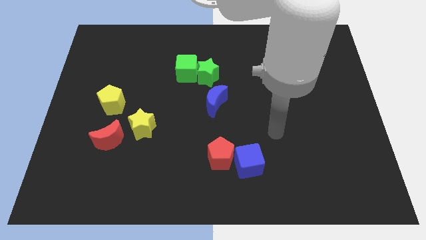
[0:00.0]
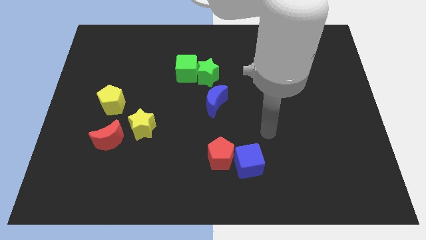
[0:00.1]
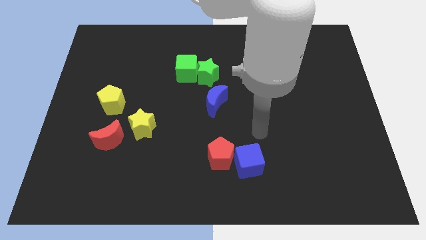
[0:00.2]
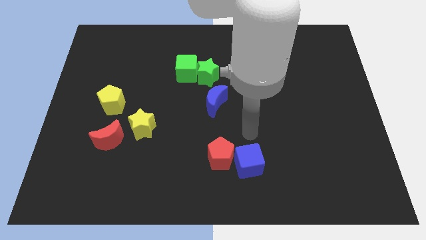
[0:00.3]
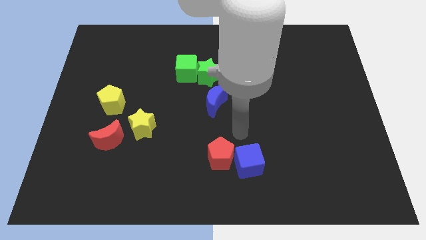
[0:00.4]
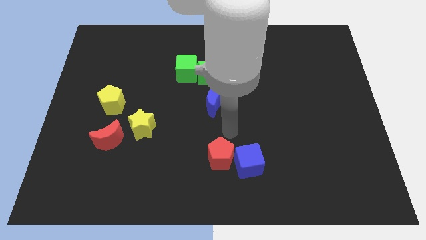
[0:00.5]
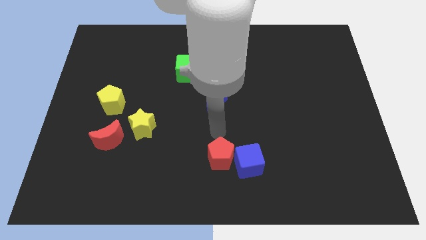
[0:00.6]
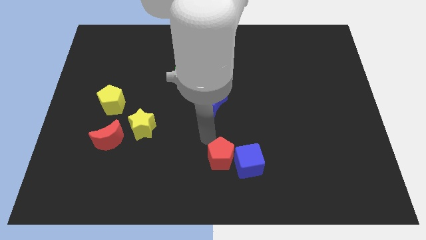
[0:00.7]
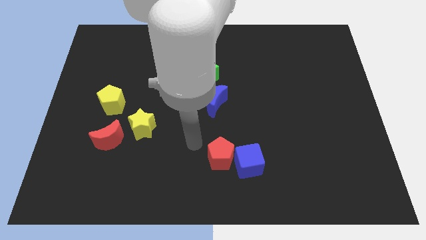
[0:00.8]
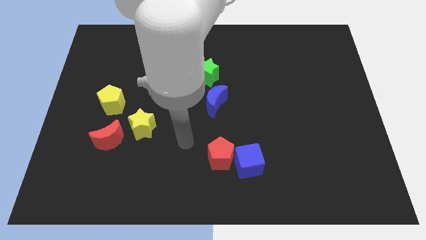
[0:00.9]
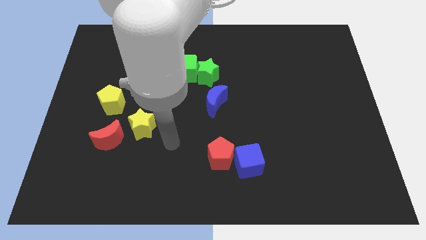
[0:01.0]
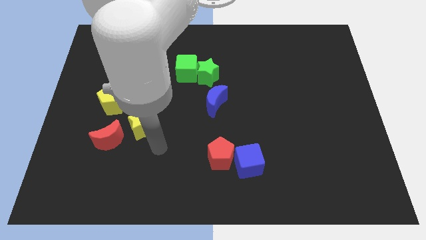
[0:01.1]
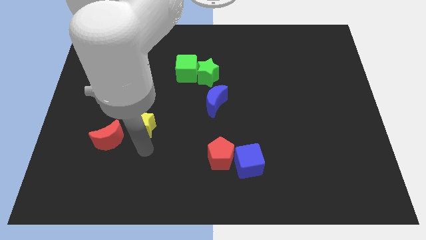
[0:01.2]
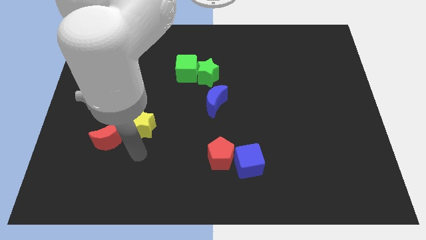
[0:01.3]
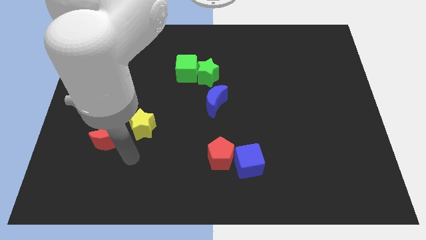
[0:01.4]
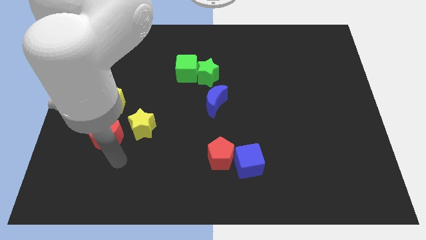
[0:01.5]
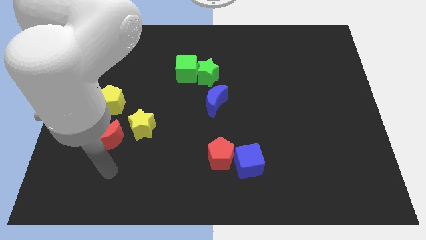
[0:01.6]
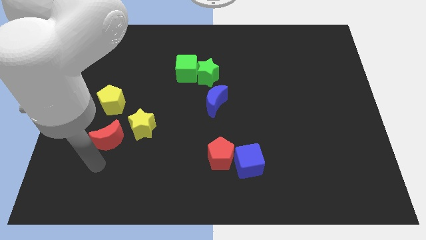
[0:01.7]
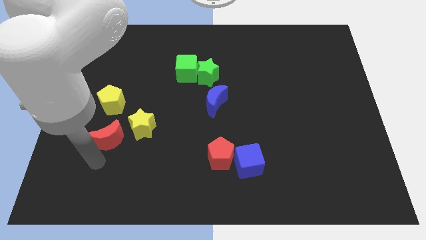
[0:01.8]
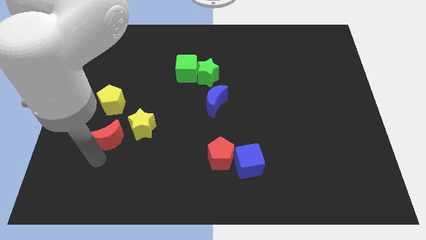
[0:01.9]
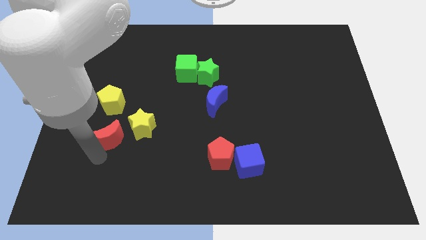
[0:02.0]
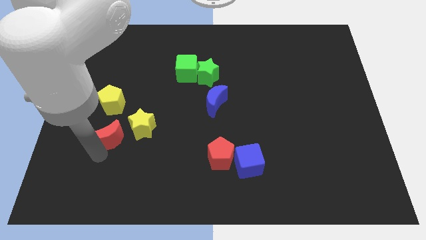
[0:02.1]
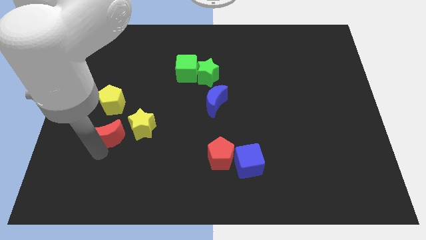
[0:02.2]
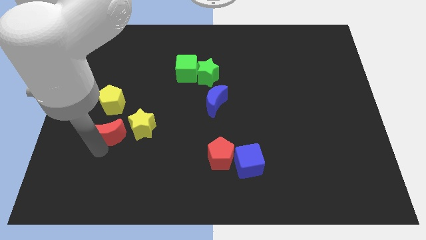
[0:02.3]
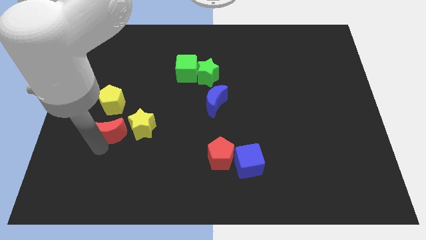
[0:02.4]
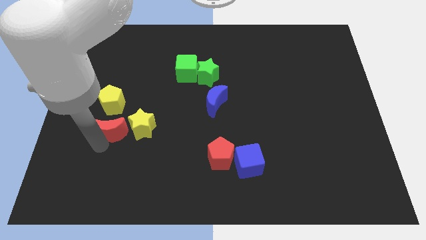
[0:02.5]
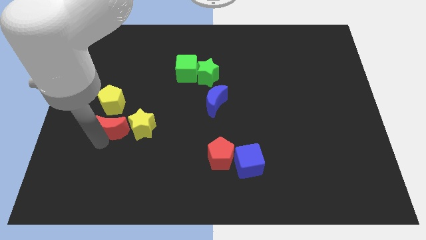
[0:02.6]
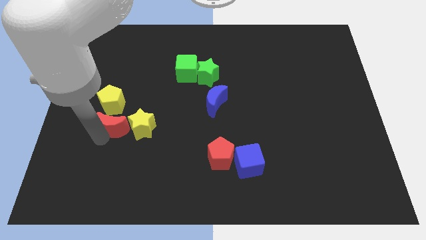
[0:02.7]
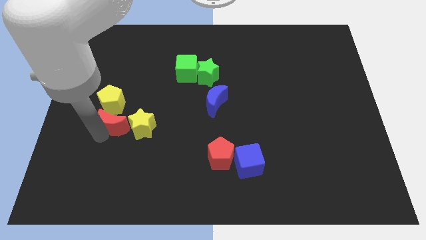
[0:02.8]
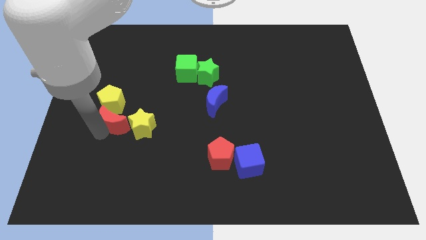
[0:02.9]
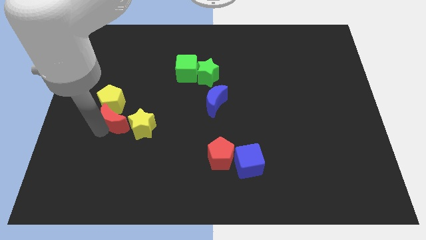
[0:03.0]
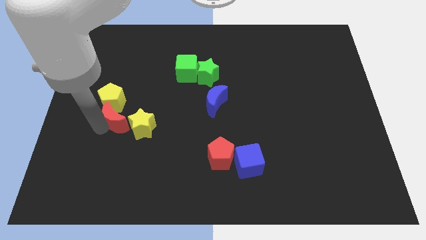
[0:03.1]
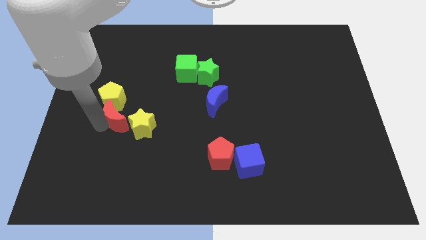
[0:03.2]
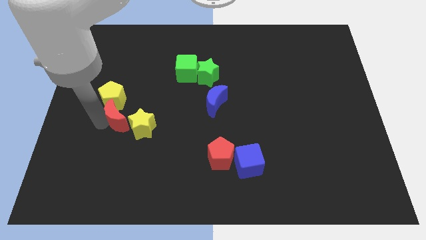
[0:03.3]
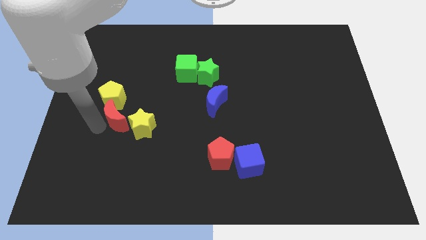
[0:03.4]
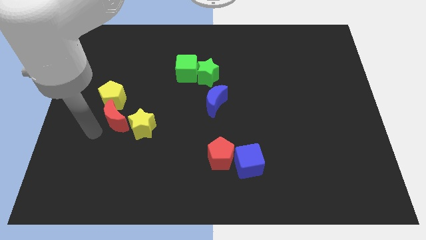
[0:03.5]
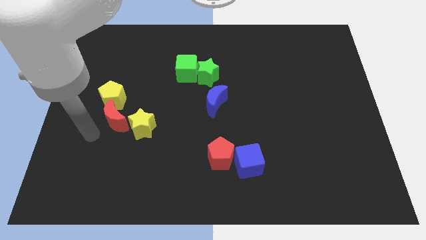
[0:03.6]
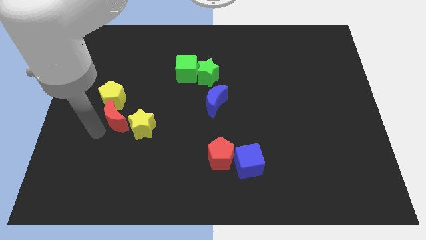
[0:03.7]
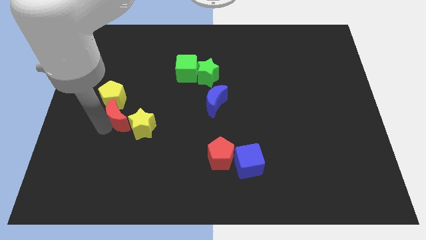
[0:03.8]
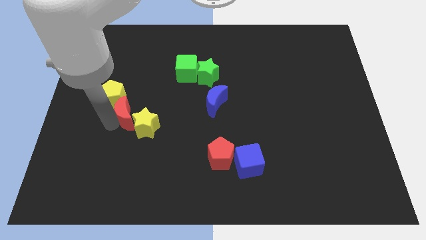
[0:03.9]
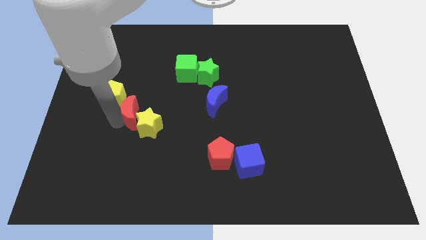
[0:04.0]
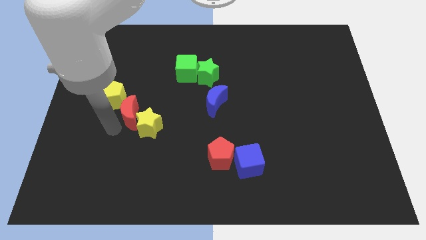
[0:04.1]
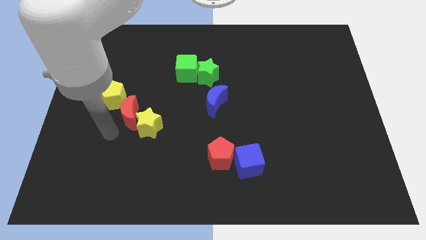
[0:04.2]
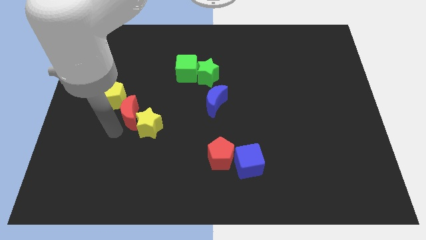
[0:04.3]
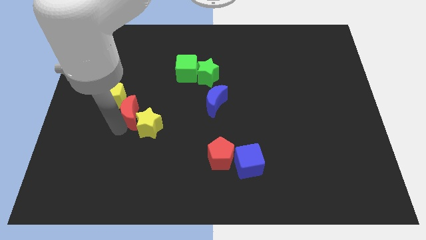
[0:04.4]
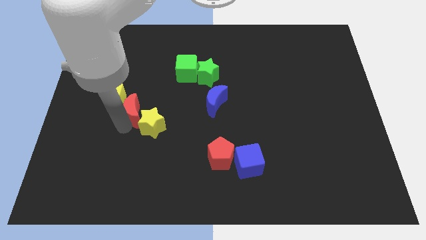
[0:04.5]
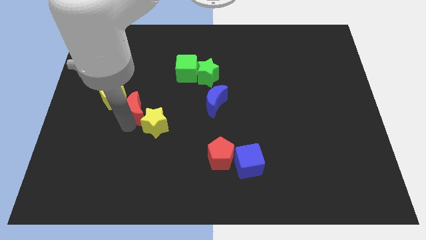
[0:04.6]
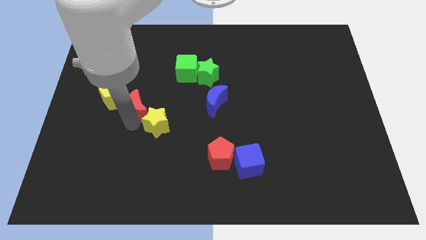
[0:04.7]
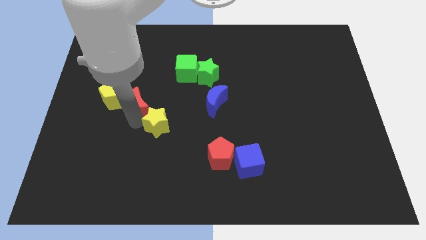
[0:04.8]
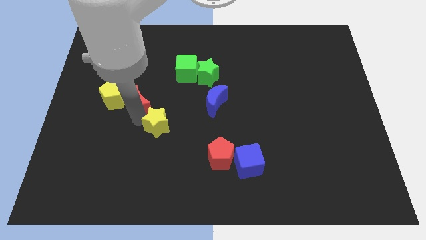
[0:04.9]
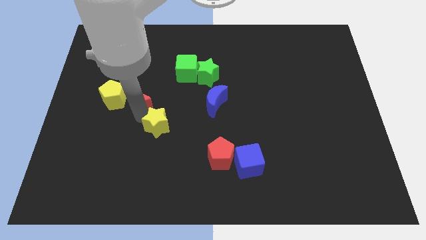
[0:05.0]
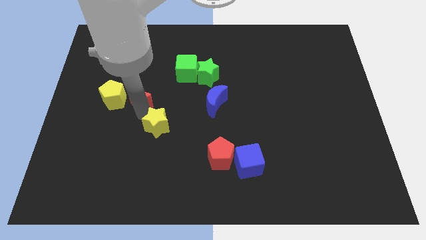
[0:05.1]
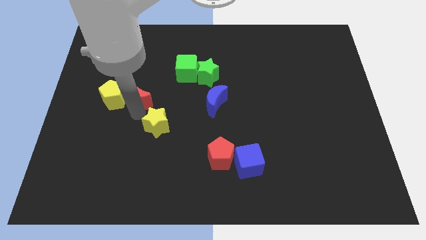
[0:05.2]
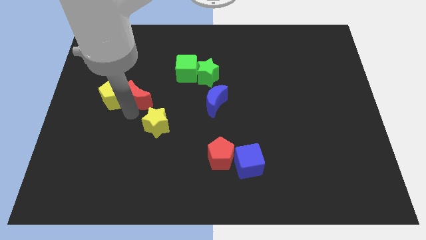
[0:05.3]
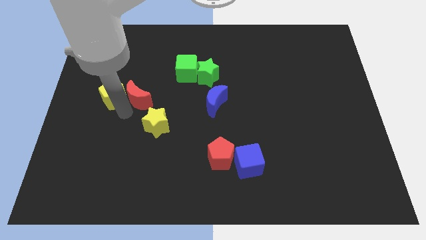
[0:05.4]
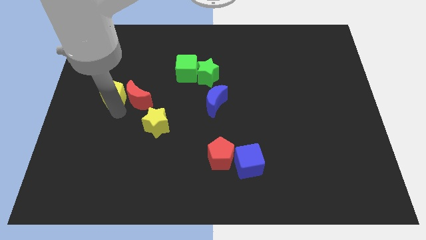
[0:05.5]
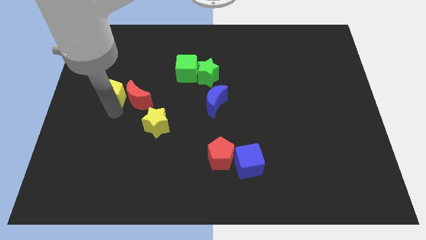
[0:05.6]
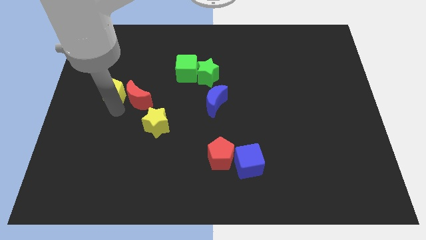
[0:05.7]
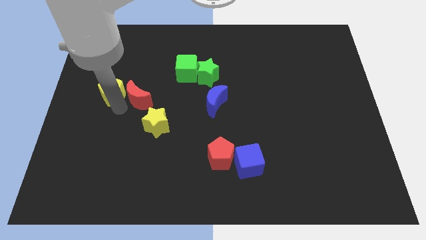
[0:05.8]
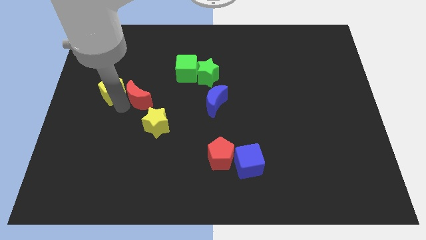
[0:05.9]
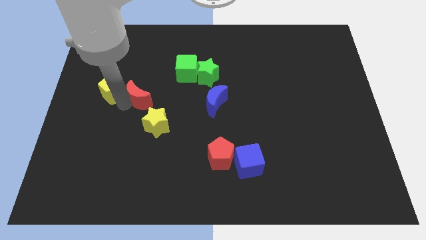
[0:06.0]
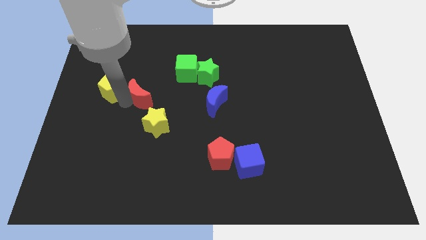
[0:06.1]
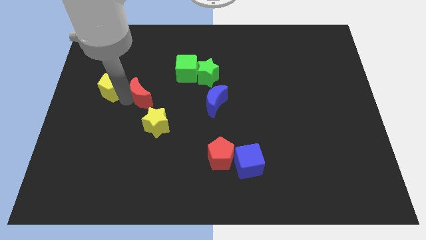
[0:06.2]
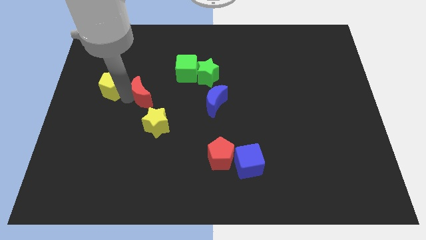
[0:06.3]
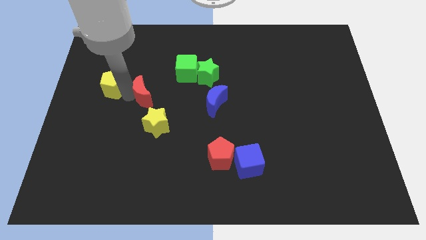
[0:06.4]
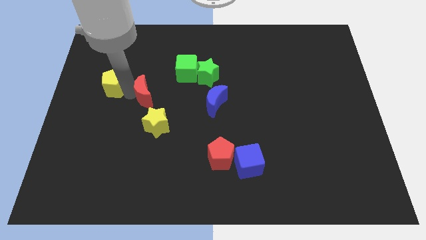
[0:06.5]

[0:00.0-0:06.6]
push the red moon to the bottom left side of the green cube

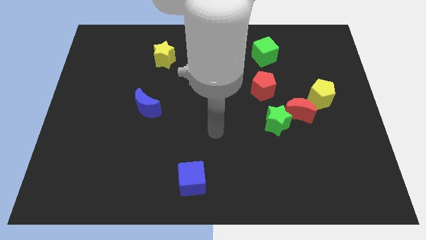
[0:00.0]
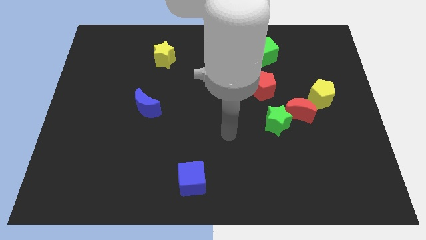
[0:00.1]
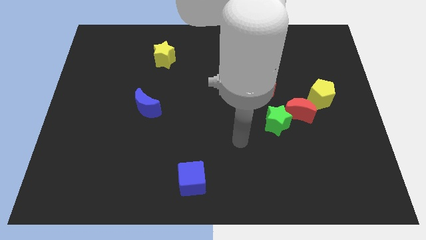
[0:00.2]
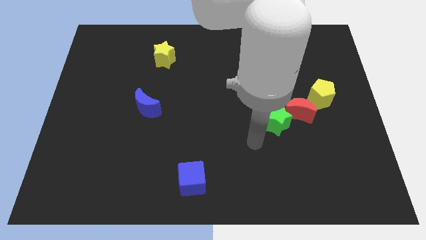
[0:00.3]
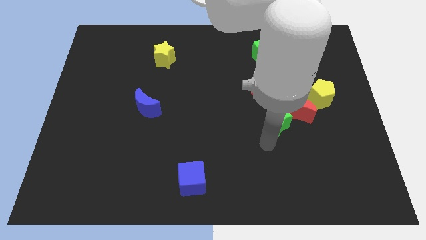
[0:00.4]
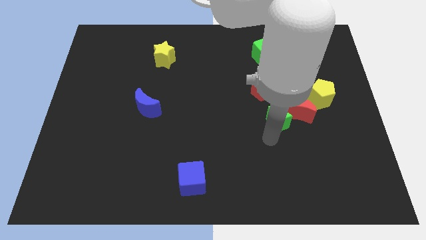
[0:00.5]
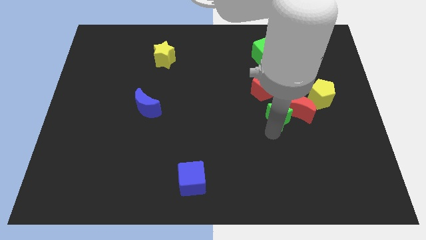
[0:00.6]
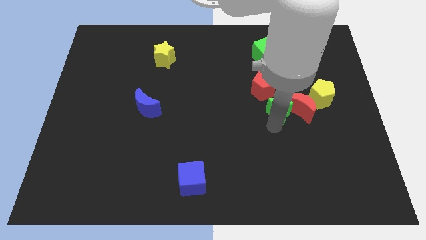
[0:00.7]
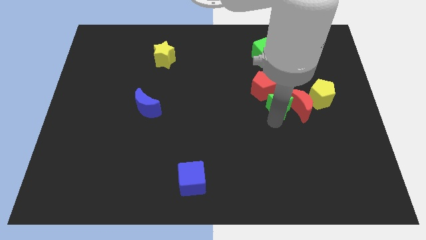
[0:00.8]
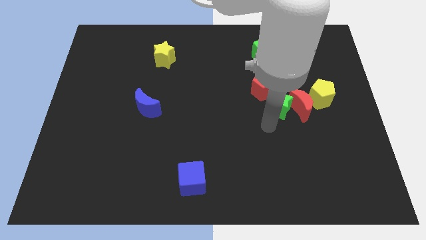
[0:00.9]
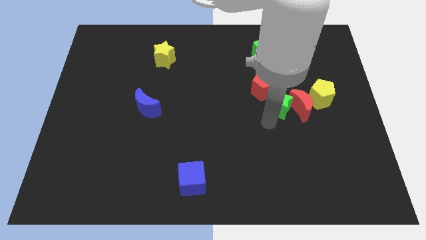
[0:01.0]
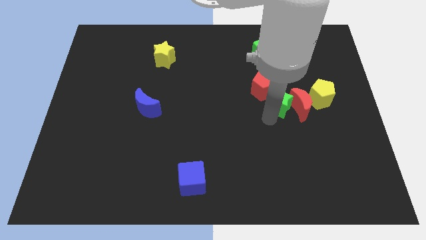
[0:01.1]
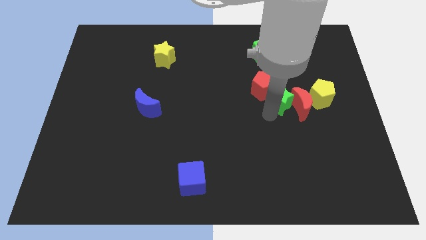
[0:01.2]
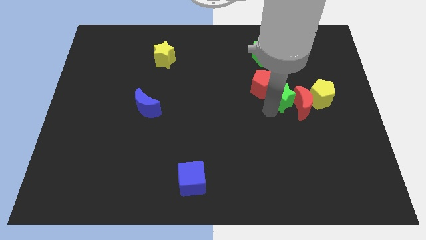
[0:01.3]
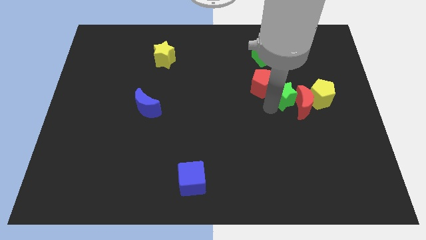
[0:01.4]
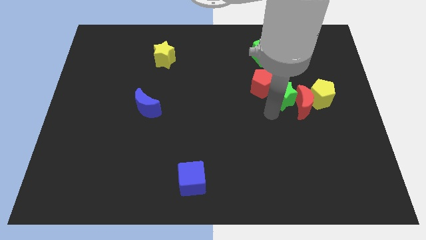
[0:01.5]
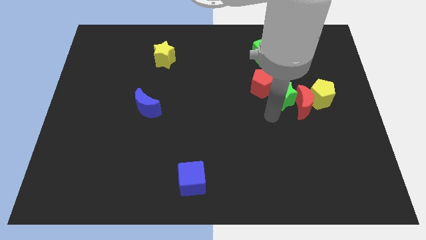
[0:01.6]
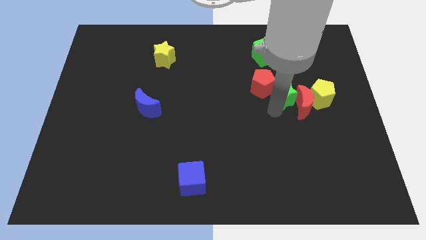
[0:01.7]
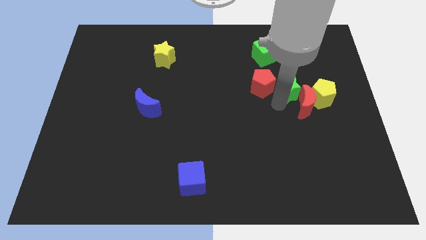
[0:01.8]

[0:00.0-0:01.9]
put the green star above the red moon
